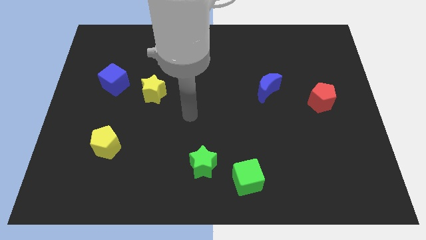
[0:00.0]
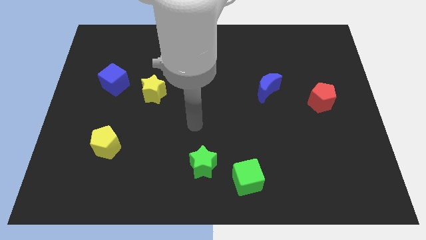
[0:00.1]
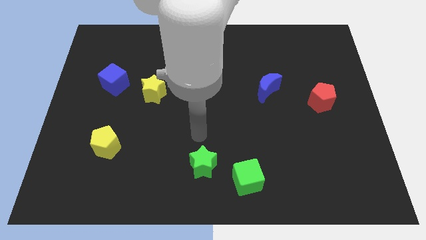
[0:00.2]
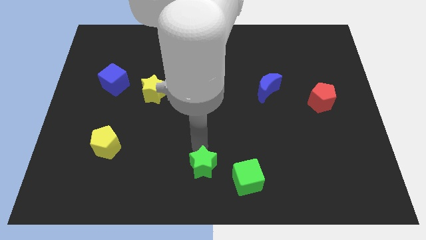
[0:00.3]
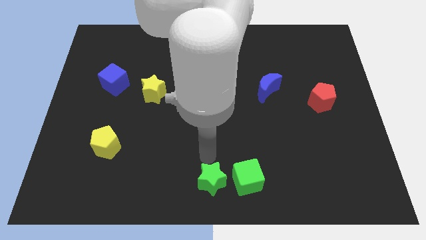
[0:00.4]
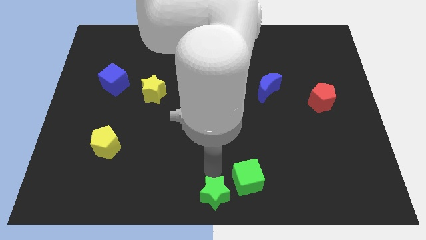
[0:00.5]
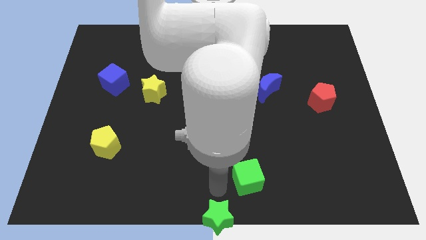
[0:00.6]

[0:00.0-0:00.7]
separate the green cube from the green star

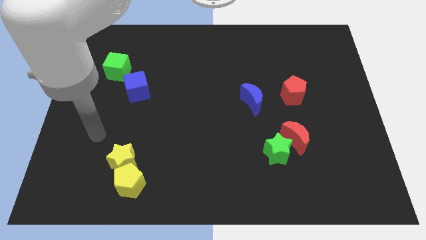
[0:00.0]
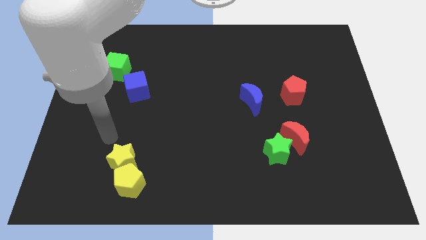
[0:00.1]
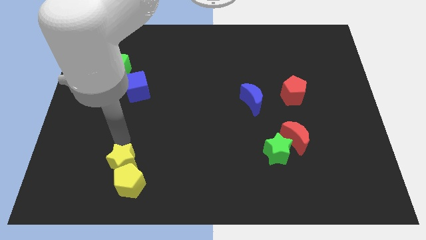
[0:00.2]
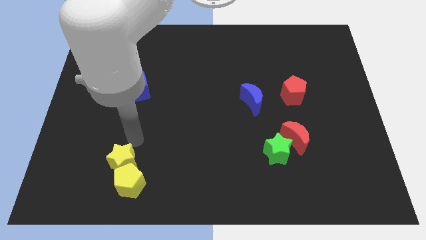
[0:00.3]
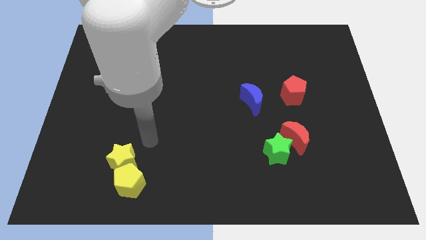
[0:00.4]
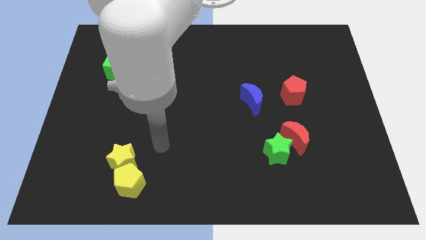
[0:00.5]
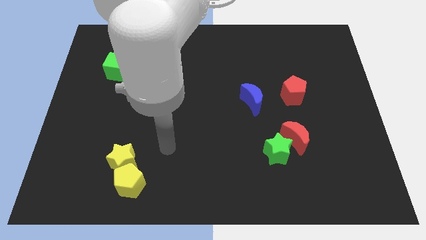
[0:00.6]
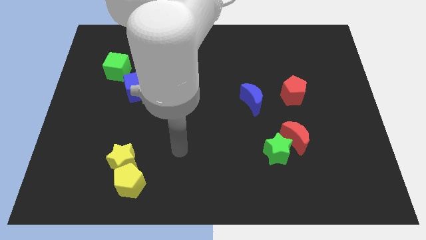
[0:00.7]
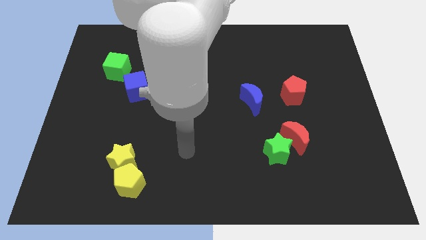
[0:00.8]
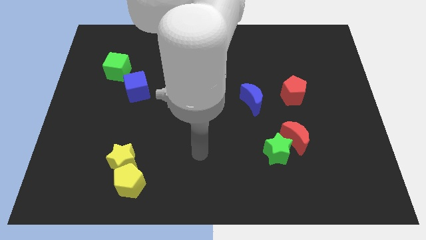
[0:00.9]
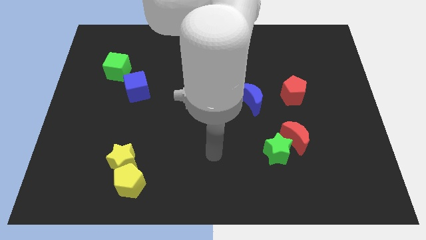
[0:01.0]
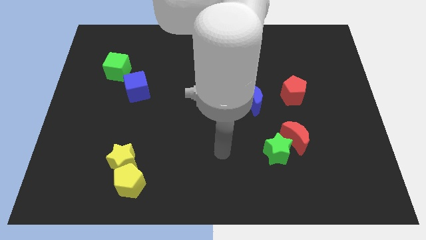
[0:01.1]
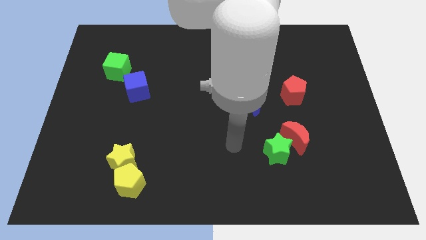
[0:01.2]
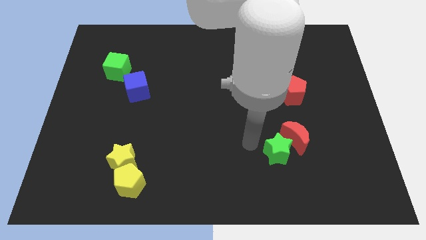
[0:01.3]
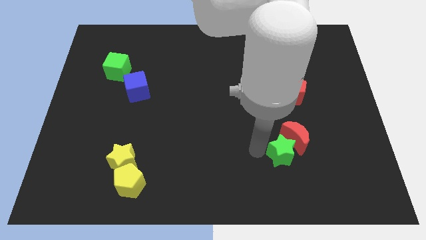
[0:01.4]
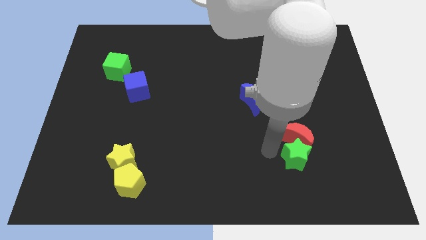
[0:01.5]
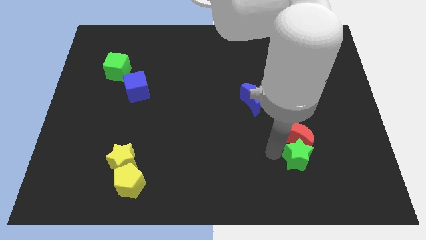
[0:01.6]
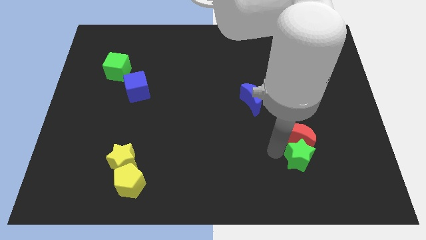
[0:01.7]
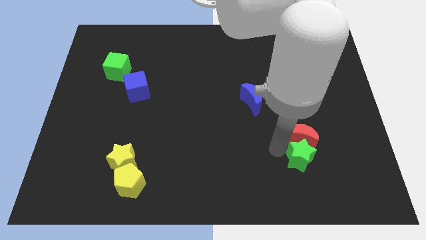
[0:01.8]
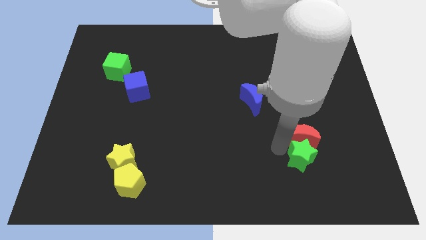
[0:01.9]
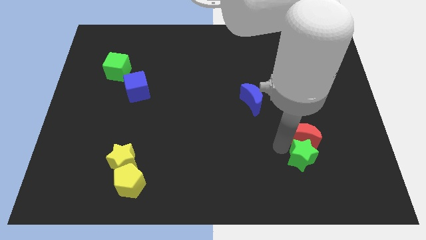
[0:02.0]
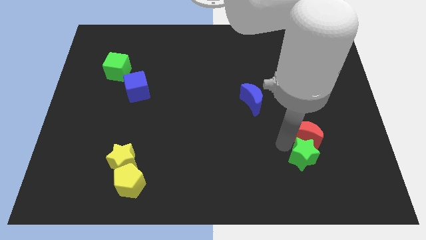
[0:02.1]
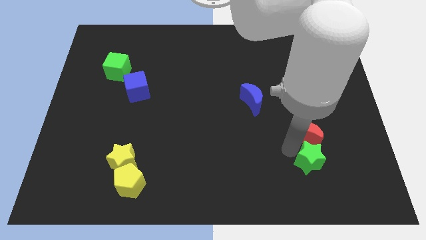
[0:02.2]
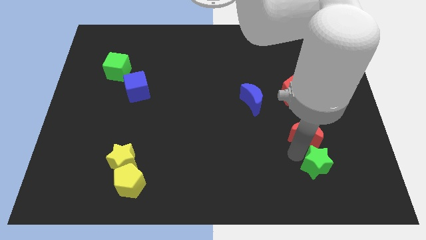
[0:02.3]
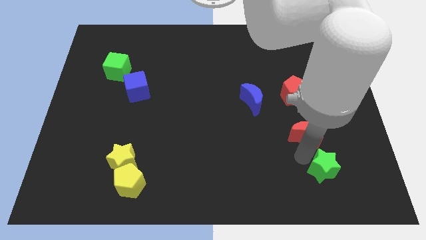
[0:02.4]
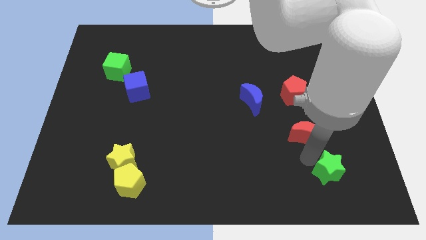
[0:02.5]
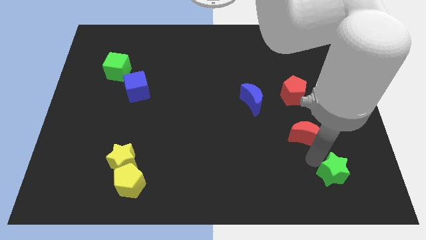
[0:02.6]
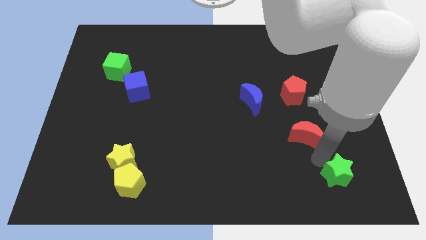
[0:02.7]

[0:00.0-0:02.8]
move the red moon away from the green star

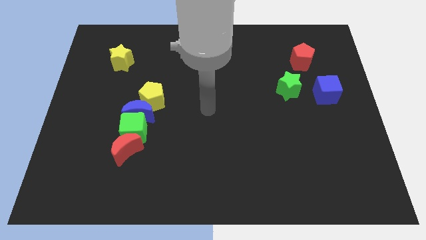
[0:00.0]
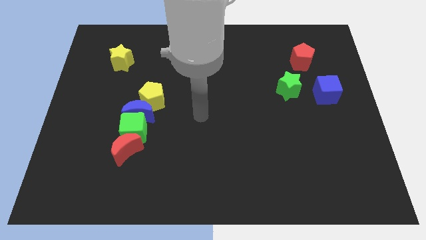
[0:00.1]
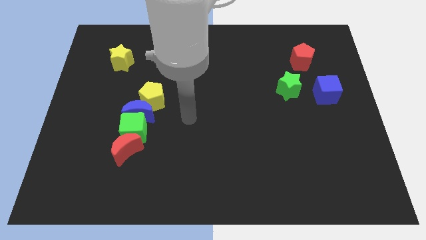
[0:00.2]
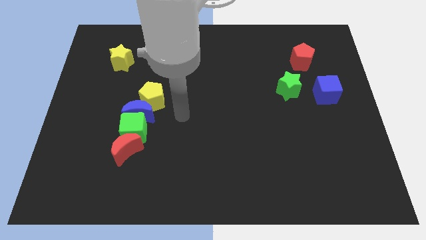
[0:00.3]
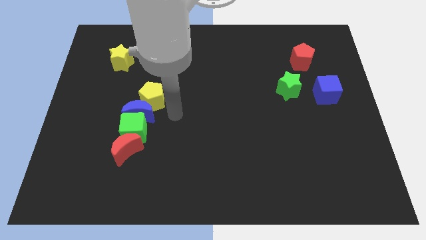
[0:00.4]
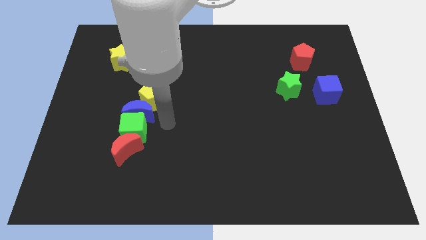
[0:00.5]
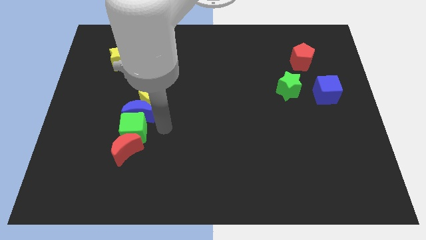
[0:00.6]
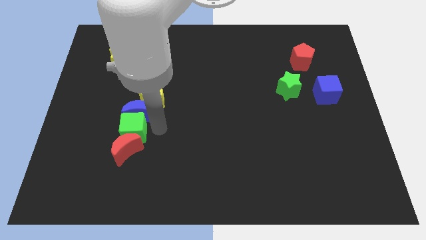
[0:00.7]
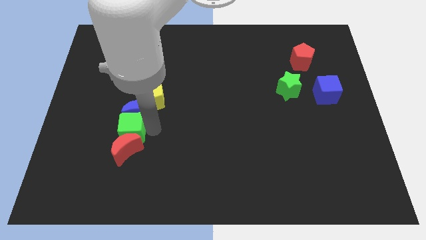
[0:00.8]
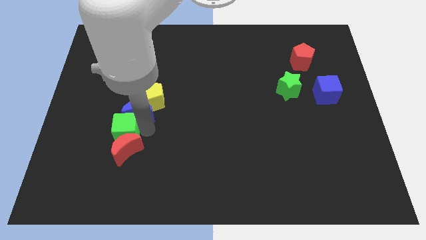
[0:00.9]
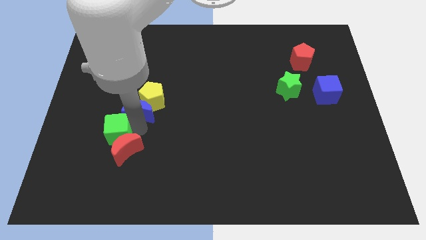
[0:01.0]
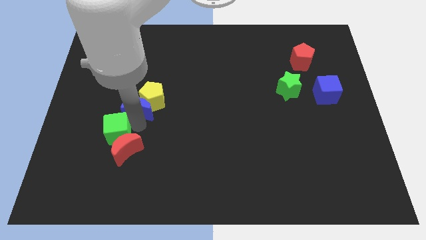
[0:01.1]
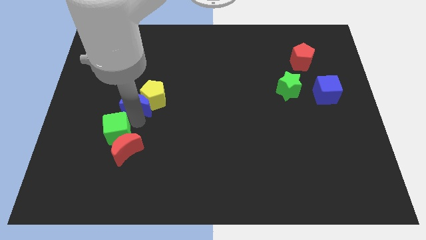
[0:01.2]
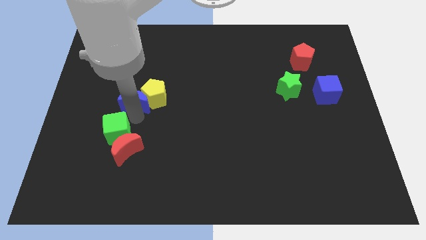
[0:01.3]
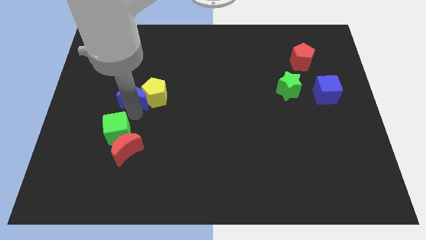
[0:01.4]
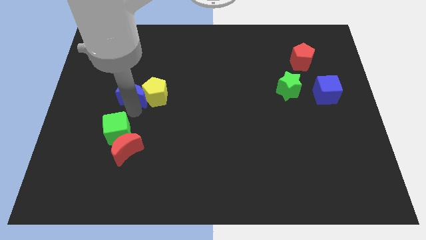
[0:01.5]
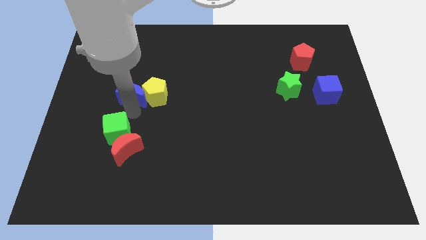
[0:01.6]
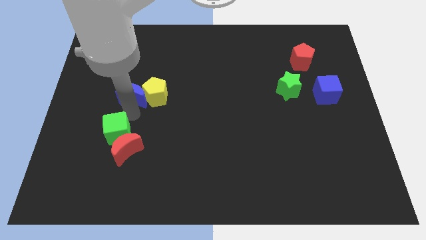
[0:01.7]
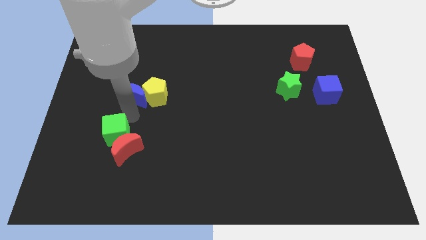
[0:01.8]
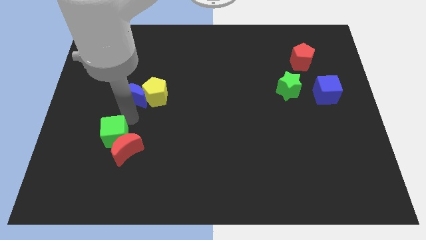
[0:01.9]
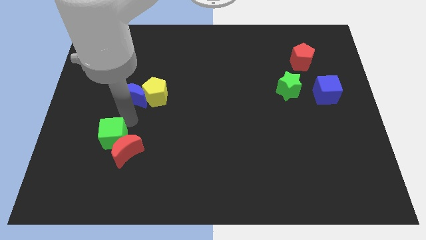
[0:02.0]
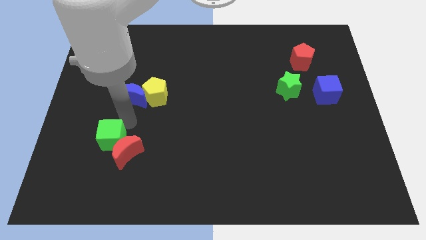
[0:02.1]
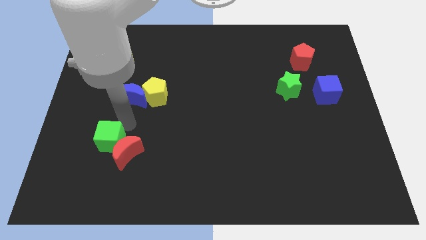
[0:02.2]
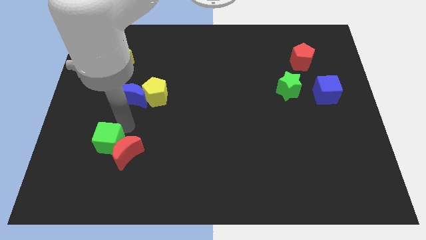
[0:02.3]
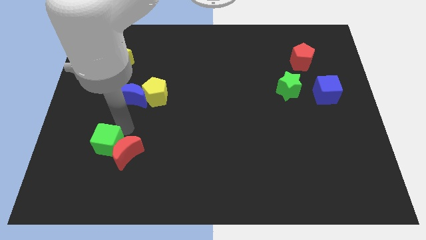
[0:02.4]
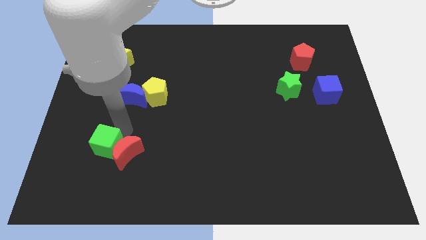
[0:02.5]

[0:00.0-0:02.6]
separate the green cube from the blue moon, red moon, and yellow pentagon

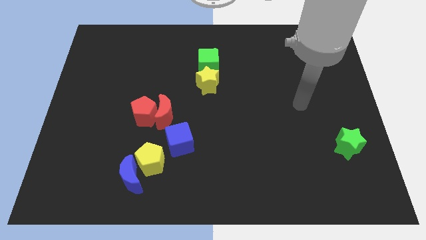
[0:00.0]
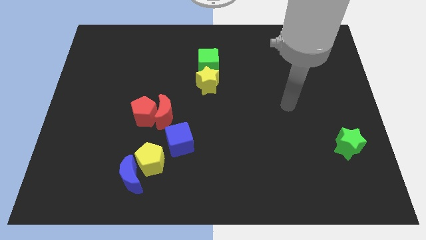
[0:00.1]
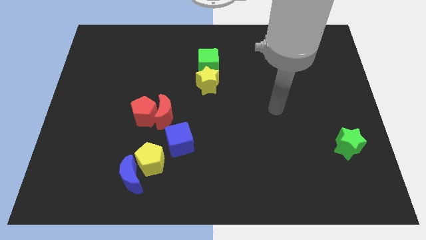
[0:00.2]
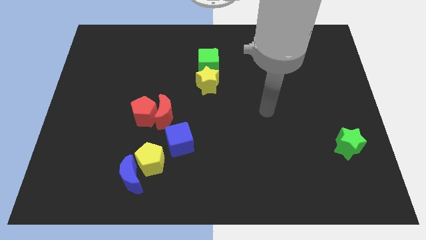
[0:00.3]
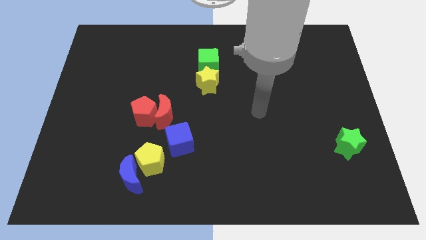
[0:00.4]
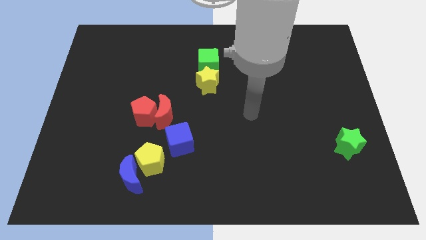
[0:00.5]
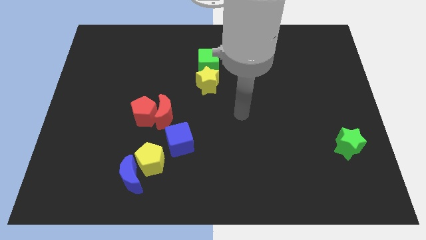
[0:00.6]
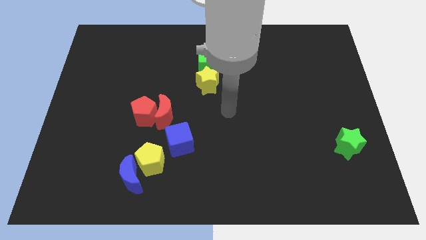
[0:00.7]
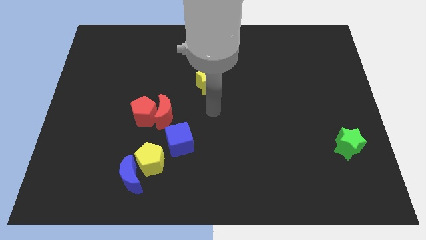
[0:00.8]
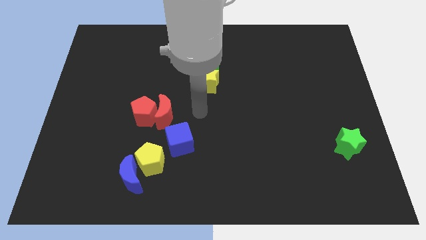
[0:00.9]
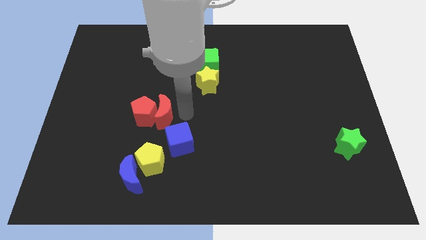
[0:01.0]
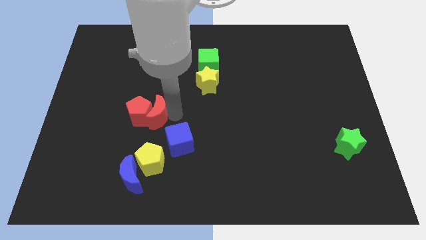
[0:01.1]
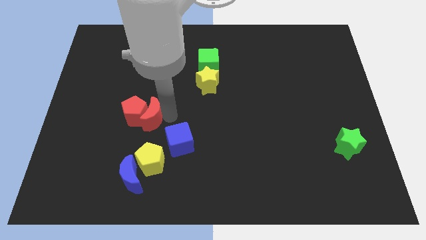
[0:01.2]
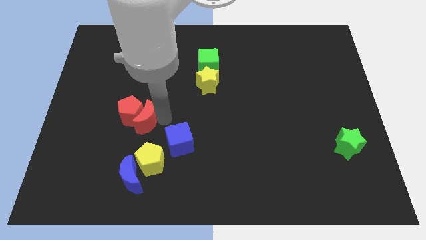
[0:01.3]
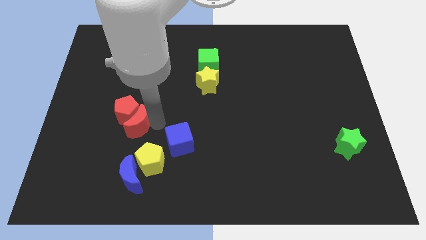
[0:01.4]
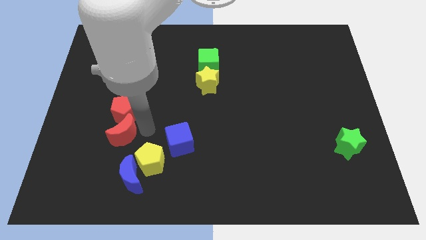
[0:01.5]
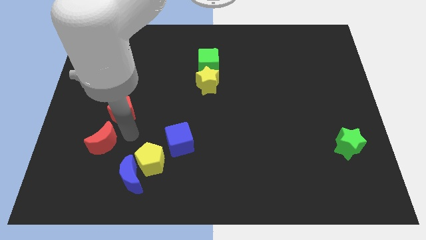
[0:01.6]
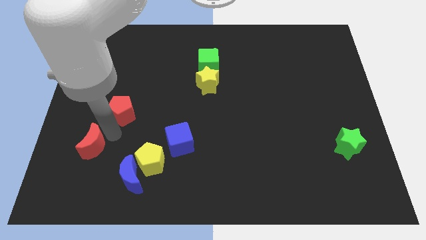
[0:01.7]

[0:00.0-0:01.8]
separate the red pentagon from the red moon

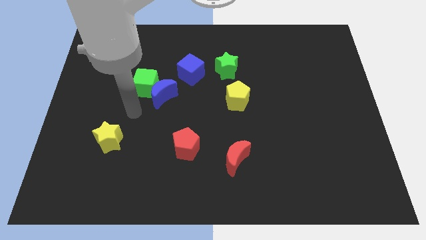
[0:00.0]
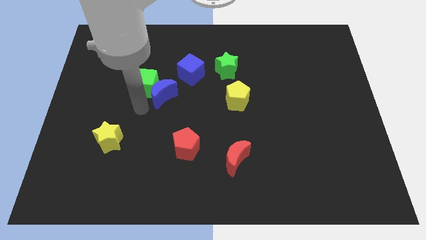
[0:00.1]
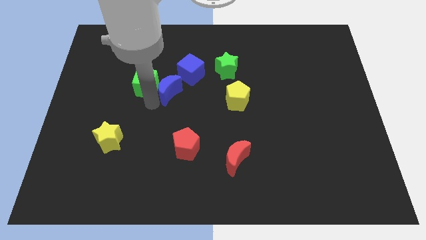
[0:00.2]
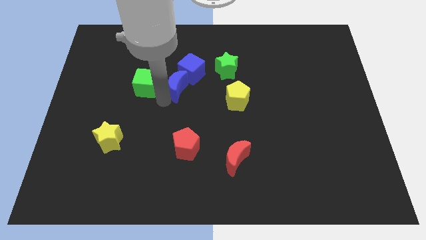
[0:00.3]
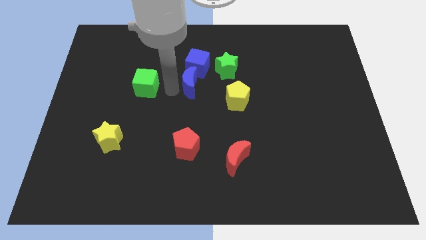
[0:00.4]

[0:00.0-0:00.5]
pull the green cube apart from the blue moon

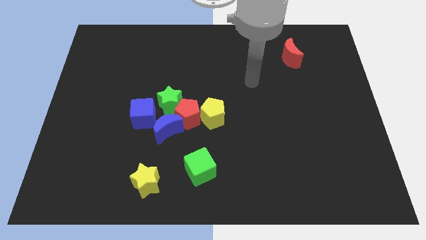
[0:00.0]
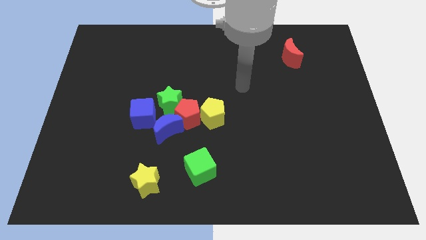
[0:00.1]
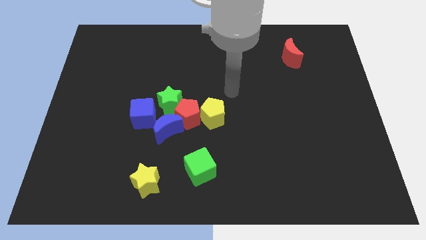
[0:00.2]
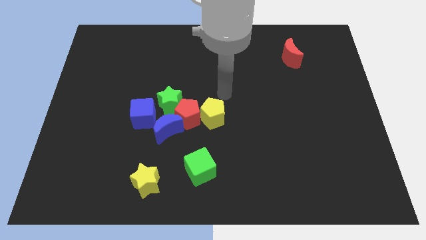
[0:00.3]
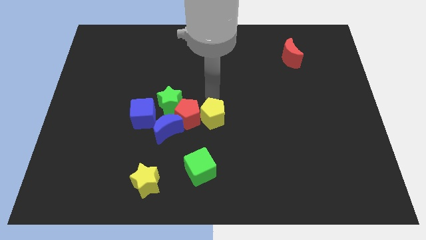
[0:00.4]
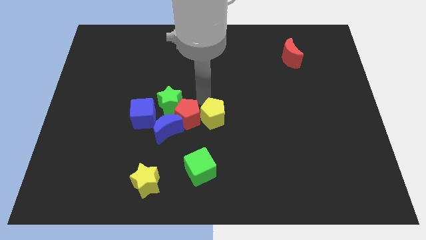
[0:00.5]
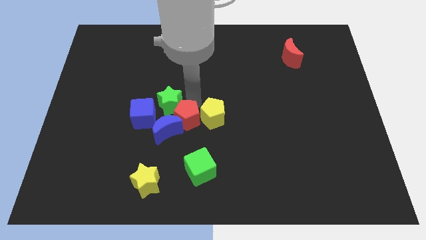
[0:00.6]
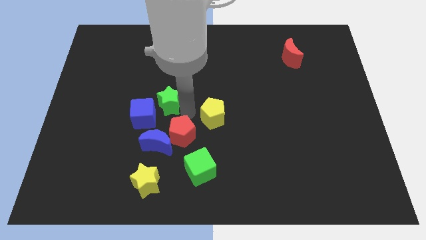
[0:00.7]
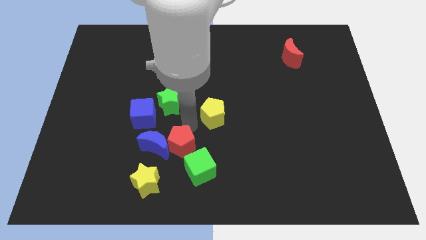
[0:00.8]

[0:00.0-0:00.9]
move the yellow pentagon away from the red pentagon
